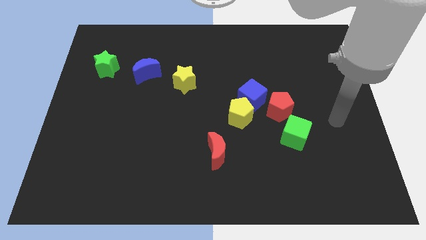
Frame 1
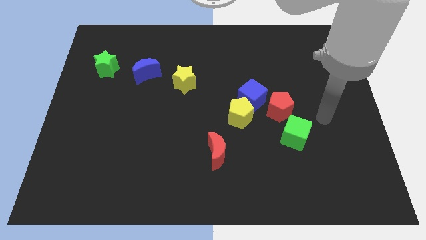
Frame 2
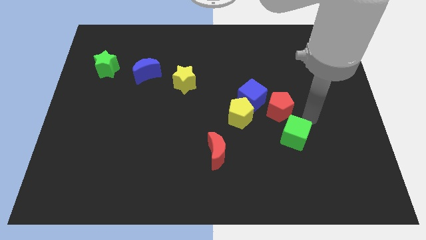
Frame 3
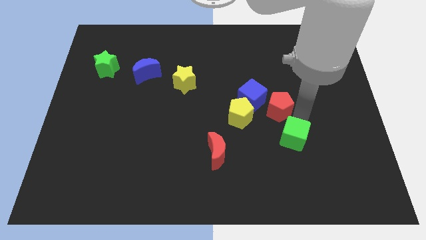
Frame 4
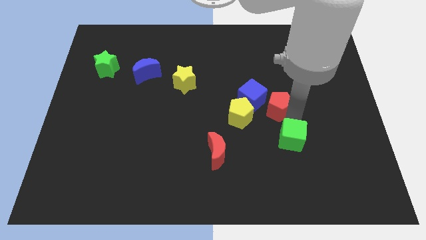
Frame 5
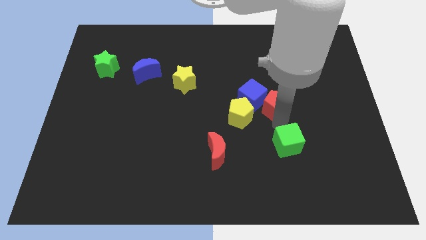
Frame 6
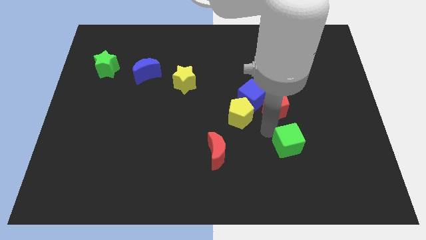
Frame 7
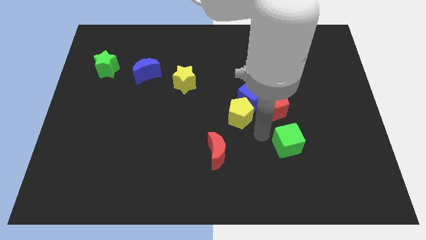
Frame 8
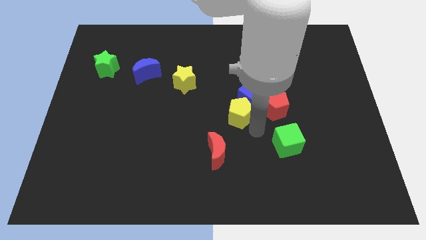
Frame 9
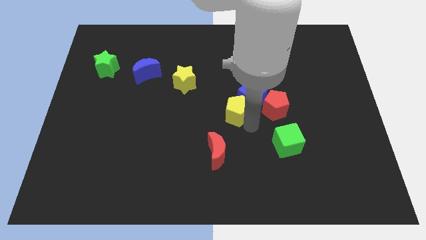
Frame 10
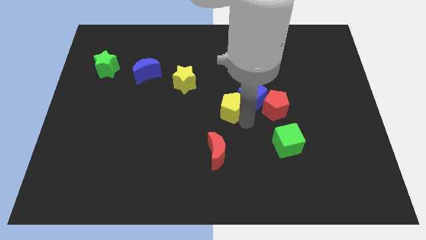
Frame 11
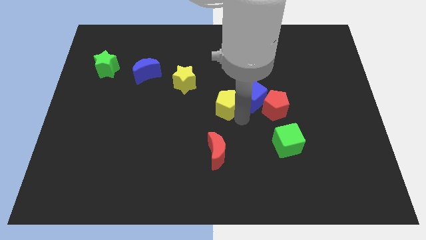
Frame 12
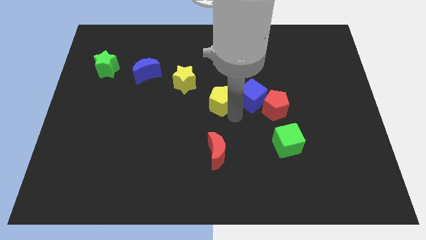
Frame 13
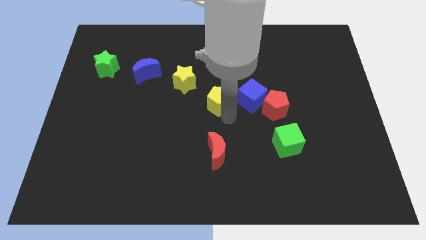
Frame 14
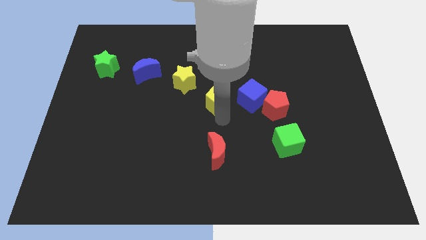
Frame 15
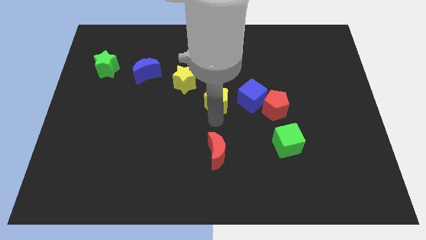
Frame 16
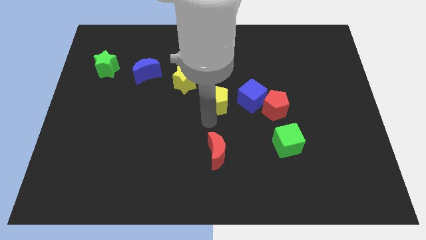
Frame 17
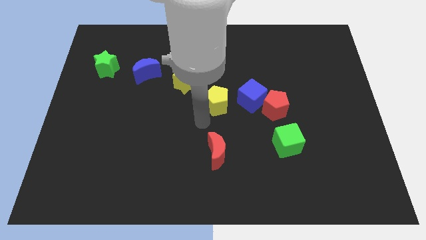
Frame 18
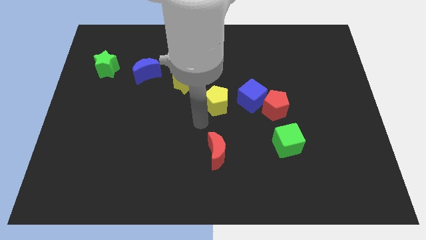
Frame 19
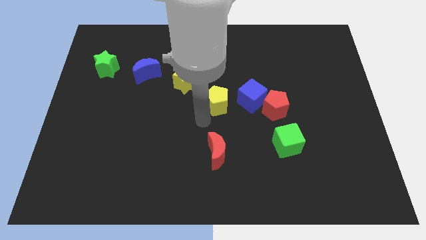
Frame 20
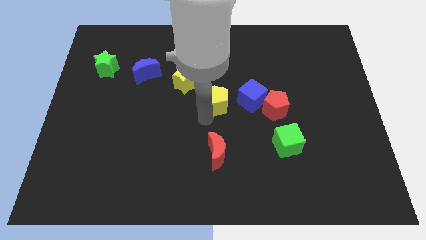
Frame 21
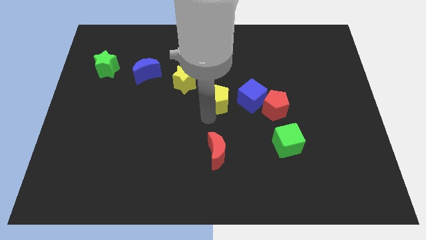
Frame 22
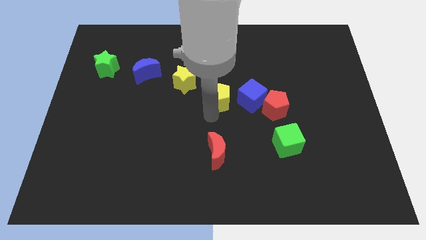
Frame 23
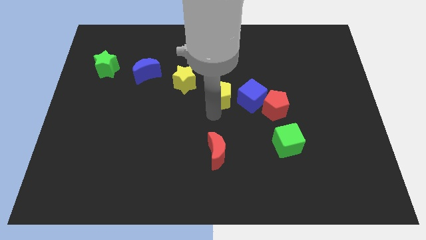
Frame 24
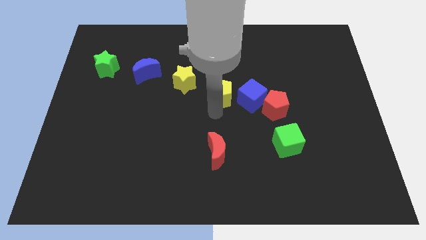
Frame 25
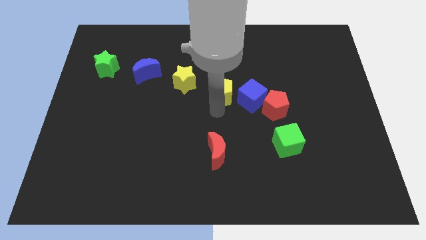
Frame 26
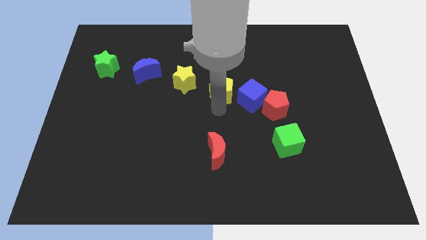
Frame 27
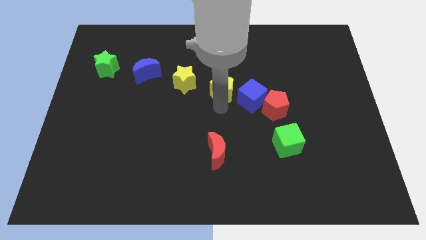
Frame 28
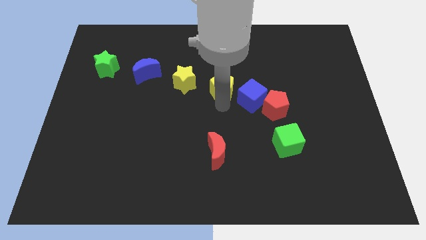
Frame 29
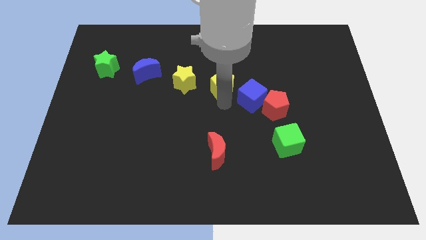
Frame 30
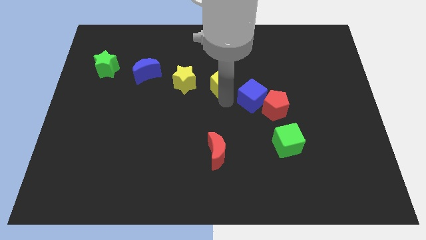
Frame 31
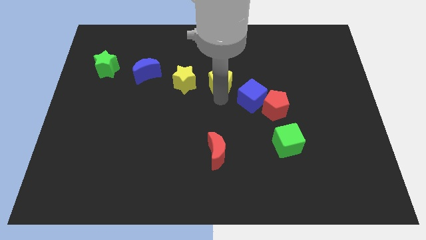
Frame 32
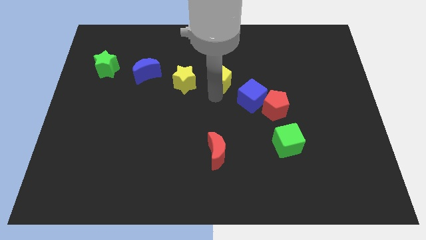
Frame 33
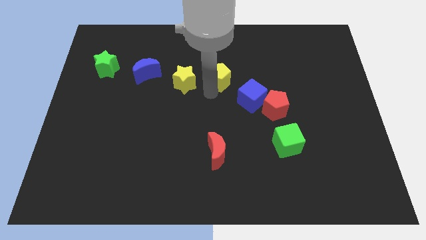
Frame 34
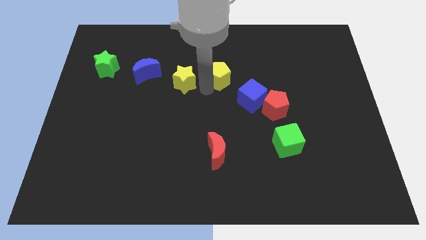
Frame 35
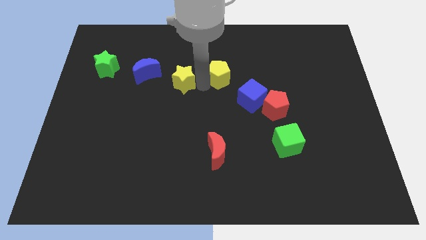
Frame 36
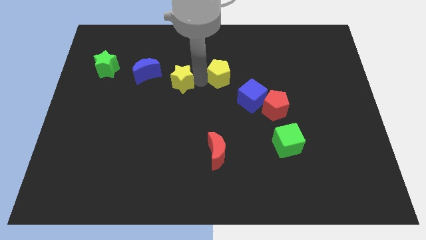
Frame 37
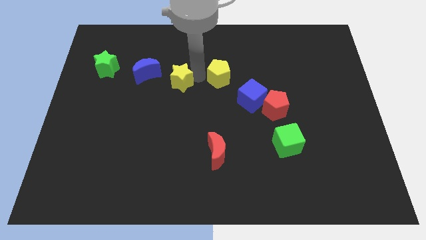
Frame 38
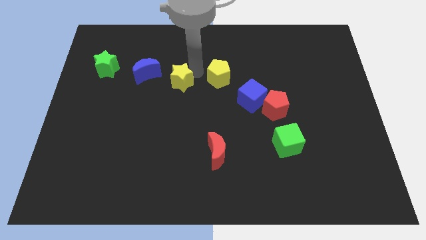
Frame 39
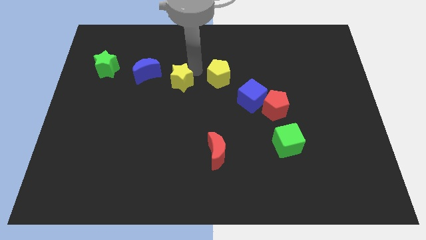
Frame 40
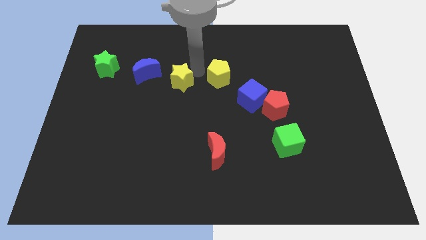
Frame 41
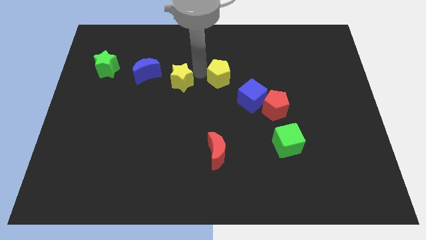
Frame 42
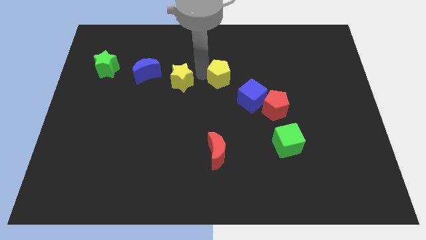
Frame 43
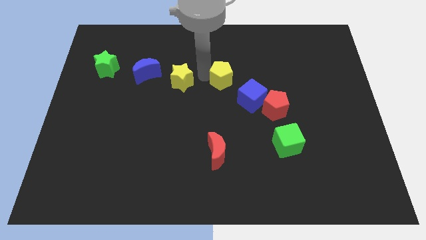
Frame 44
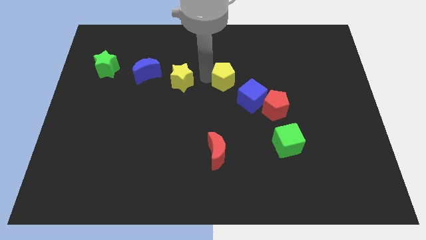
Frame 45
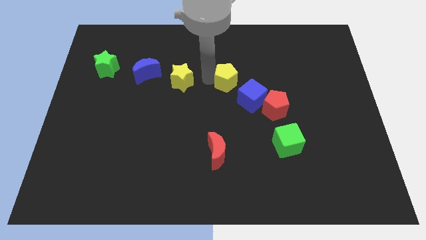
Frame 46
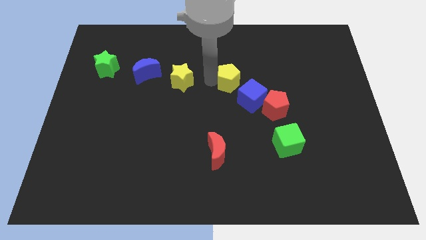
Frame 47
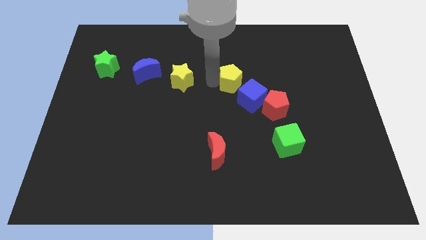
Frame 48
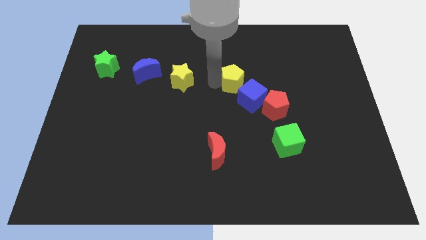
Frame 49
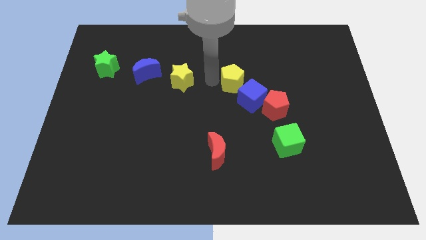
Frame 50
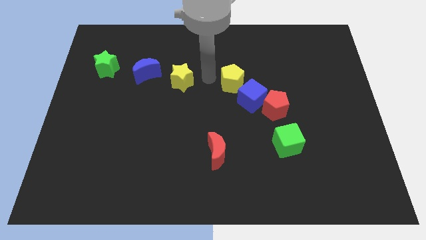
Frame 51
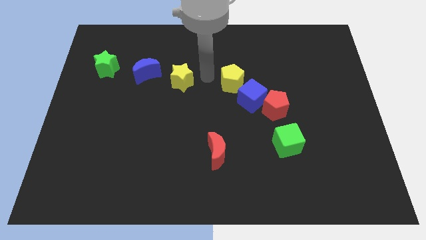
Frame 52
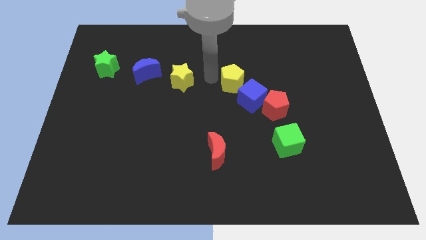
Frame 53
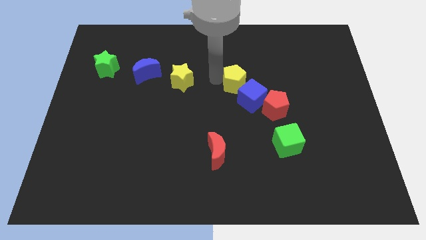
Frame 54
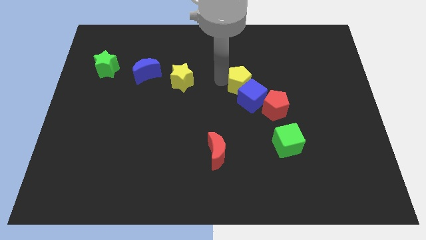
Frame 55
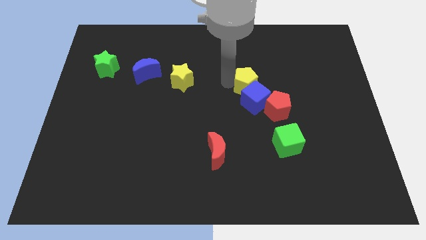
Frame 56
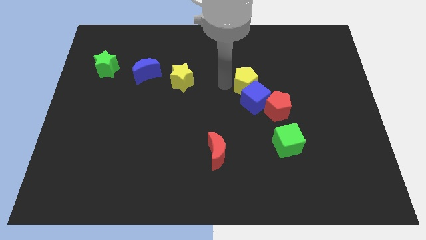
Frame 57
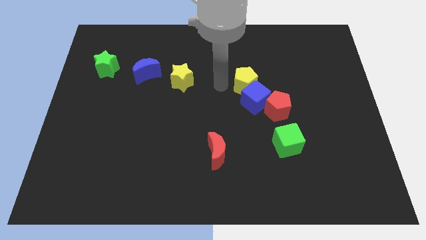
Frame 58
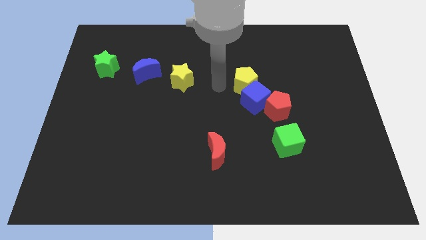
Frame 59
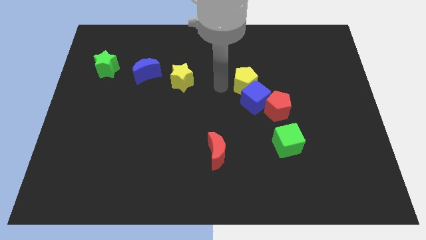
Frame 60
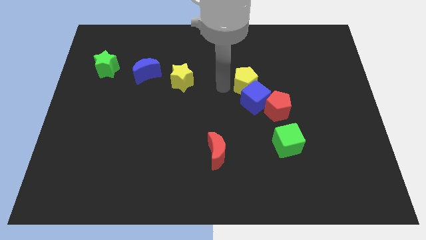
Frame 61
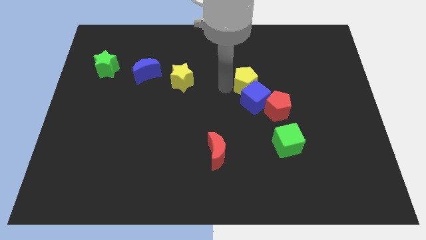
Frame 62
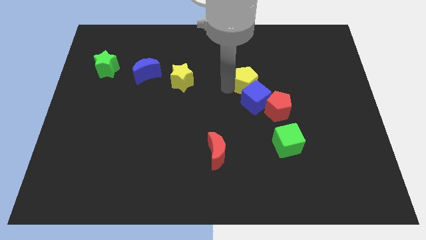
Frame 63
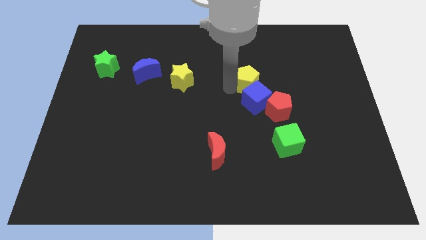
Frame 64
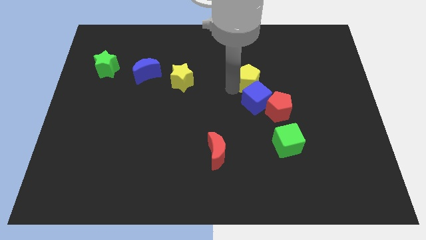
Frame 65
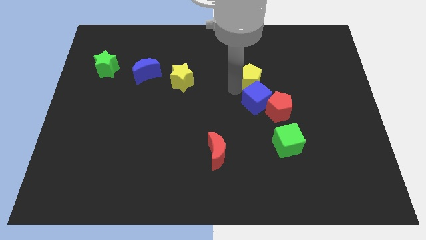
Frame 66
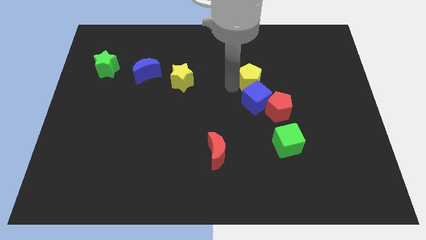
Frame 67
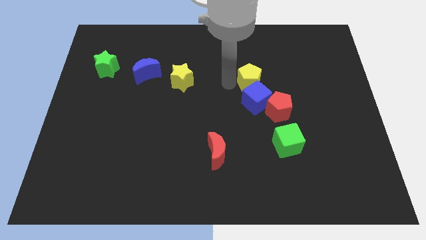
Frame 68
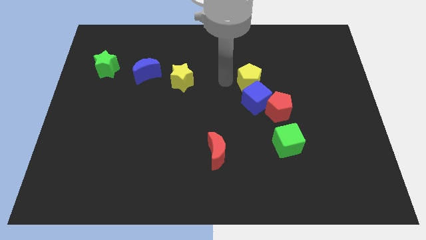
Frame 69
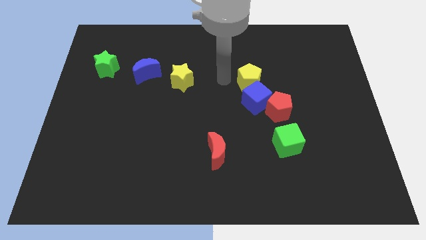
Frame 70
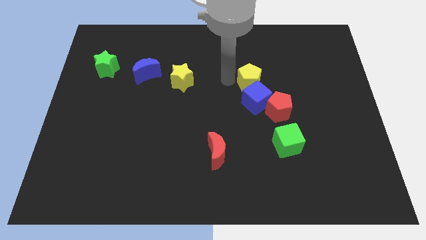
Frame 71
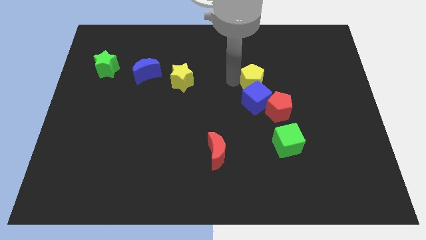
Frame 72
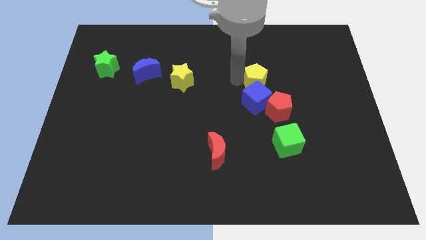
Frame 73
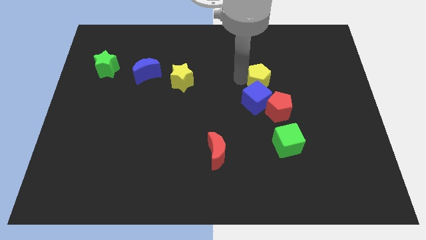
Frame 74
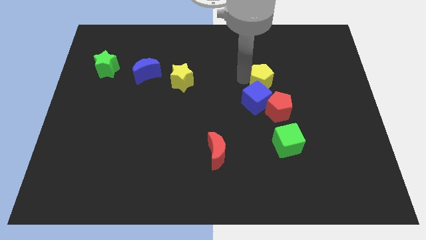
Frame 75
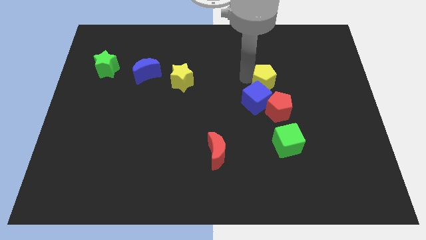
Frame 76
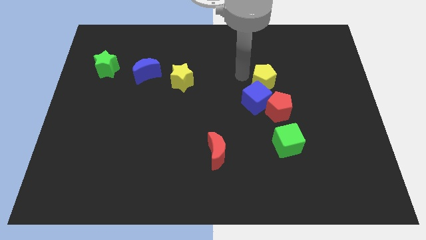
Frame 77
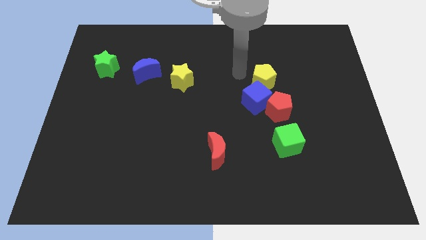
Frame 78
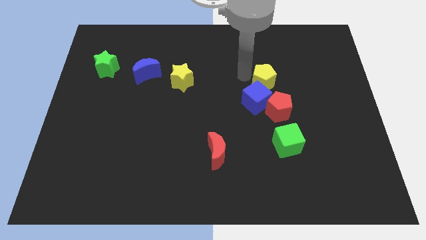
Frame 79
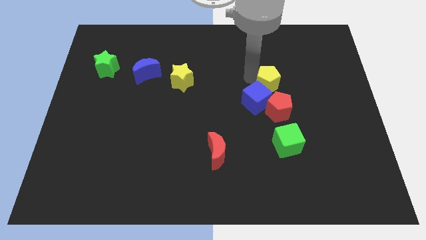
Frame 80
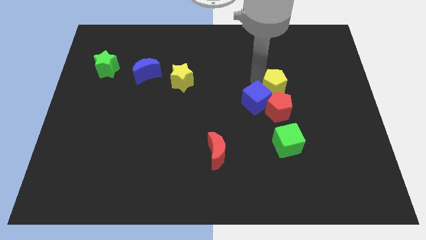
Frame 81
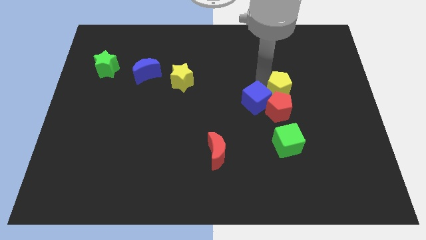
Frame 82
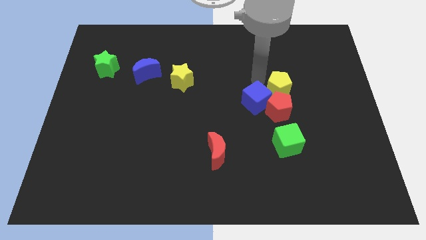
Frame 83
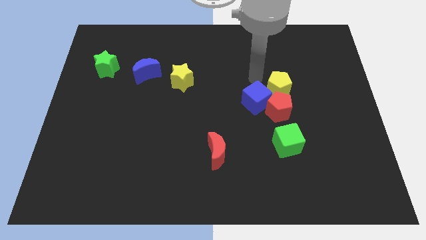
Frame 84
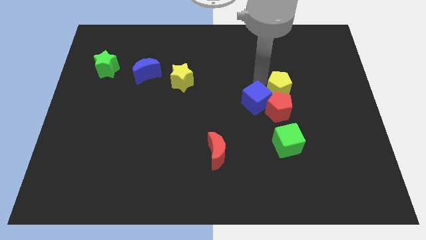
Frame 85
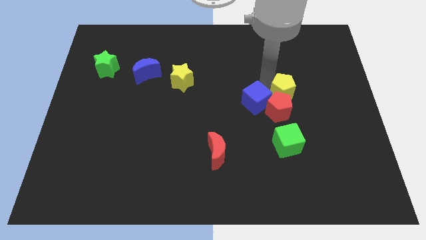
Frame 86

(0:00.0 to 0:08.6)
slide the yellow pentagon right a bit

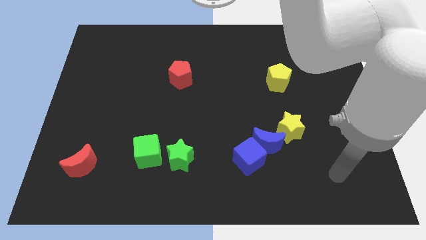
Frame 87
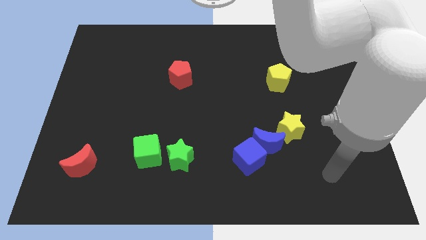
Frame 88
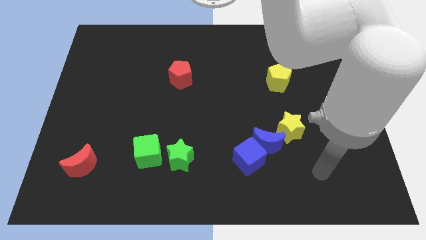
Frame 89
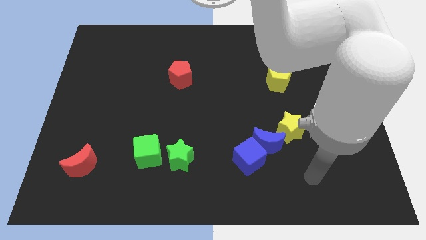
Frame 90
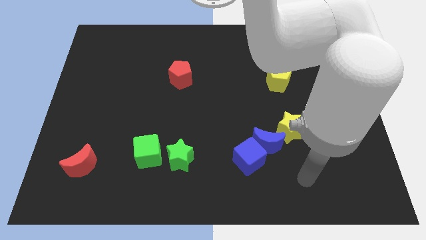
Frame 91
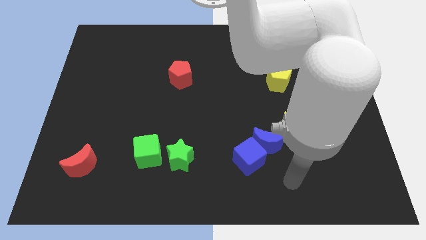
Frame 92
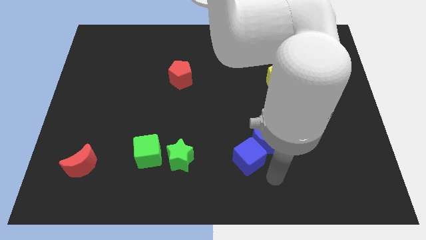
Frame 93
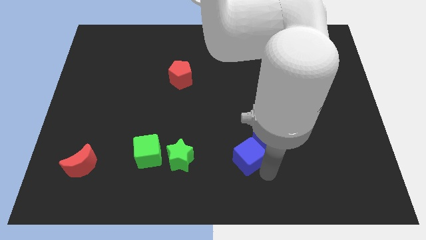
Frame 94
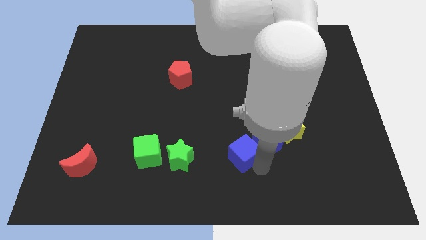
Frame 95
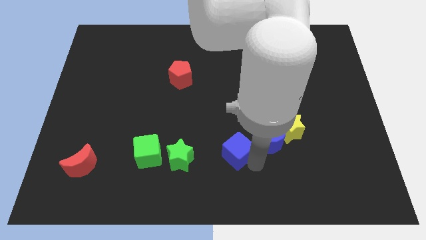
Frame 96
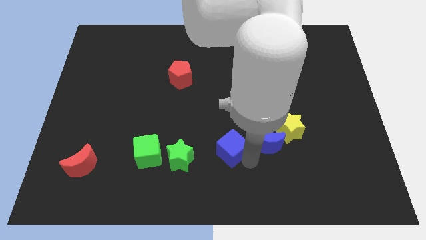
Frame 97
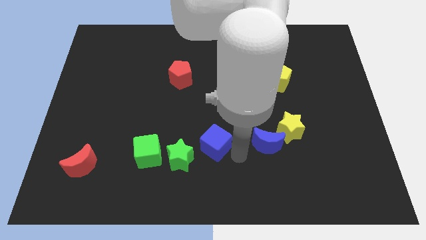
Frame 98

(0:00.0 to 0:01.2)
push the blue cube somewhat up and then to the left
